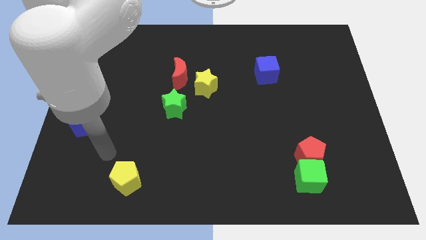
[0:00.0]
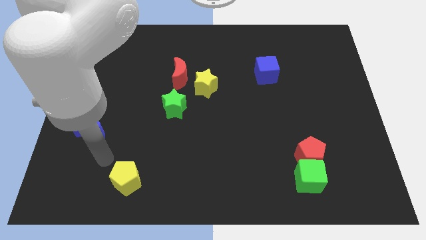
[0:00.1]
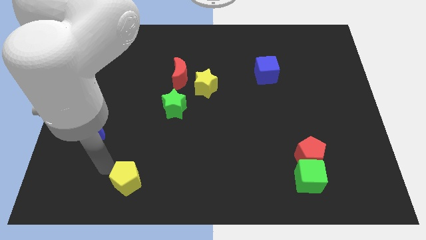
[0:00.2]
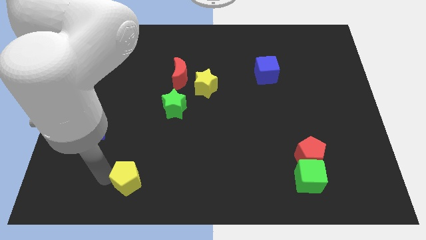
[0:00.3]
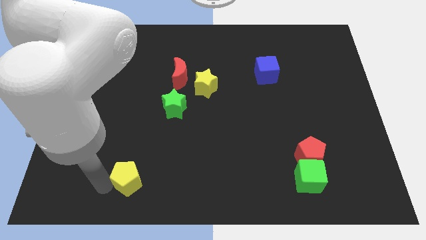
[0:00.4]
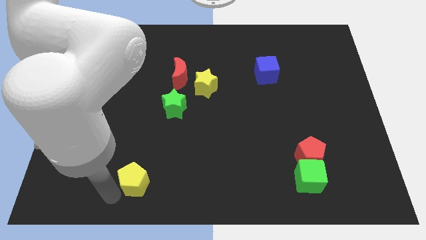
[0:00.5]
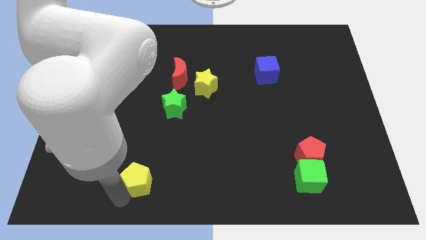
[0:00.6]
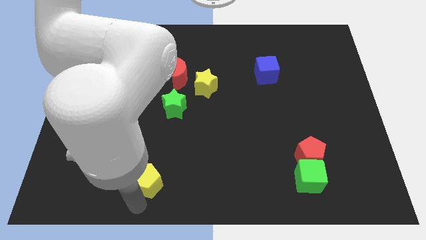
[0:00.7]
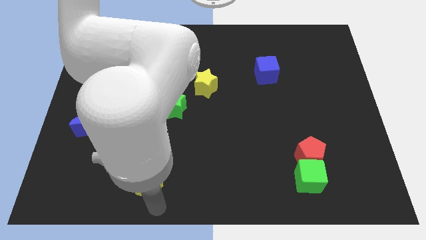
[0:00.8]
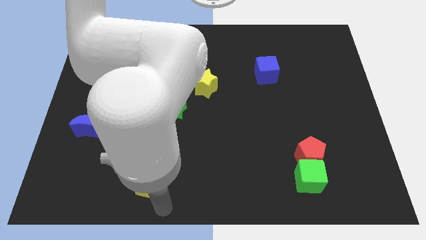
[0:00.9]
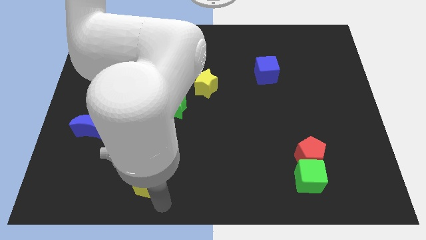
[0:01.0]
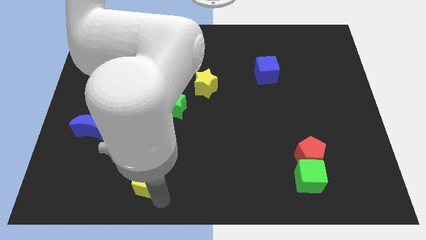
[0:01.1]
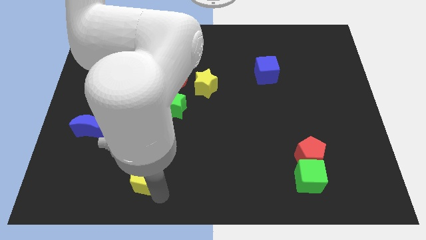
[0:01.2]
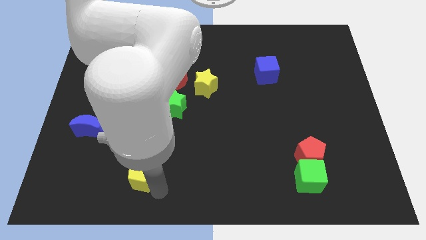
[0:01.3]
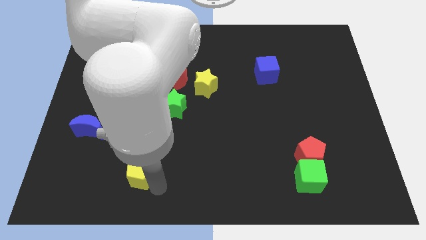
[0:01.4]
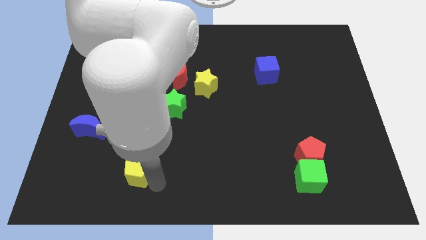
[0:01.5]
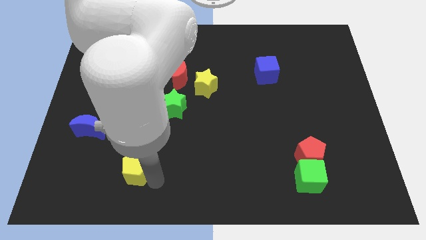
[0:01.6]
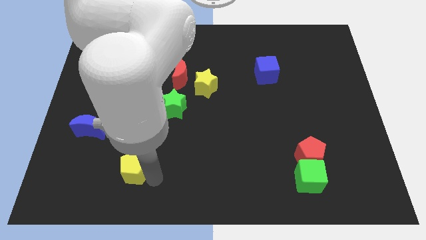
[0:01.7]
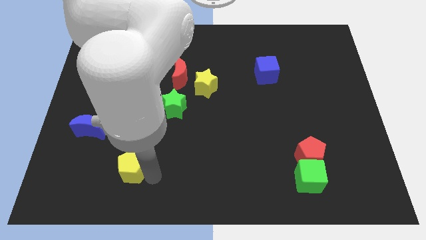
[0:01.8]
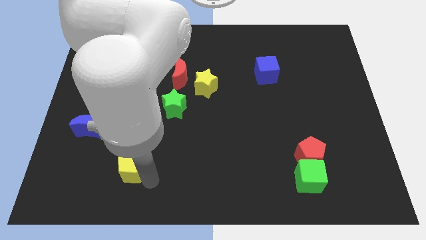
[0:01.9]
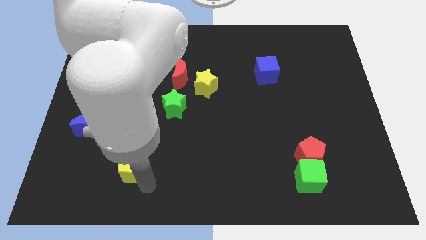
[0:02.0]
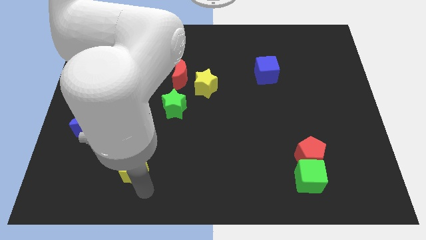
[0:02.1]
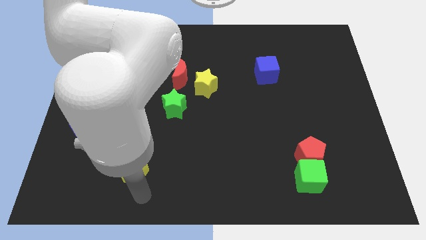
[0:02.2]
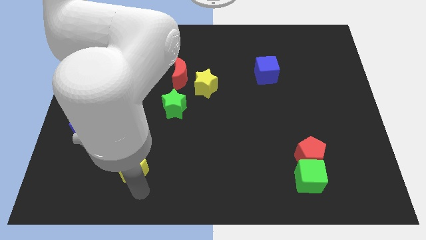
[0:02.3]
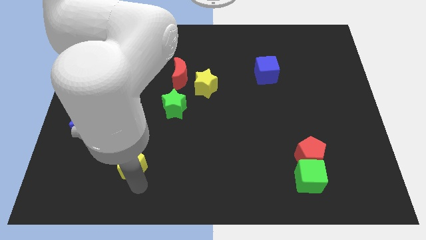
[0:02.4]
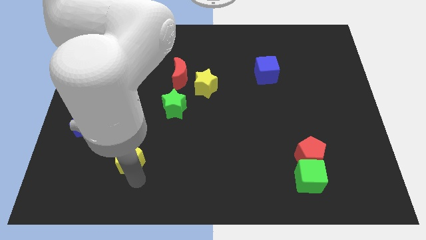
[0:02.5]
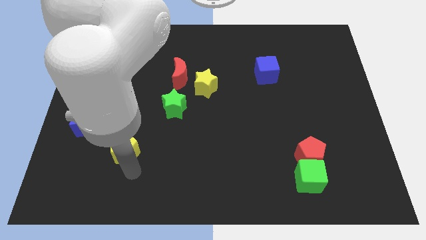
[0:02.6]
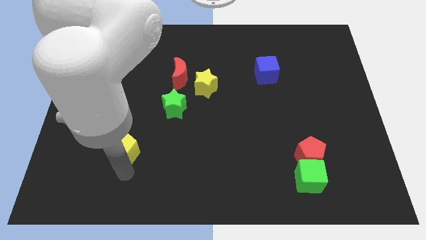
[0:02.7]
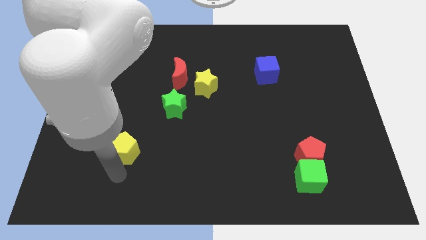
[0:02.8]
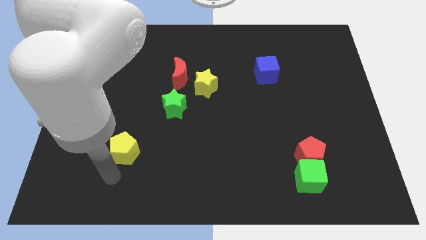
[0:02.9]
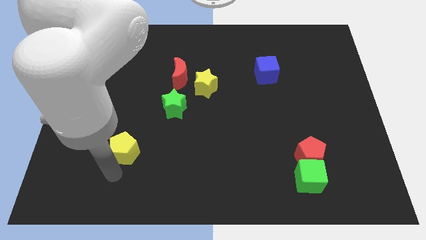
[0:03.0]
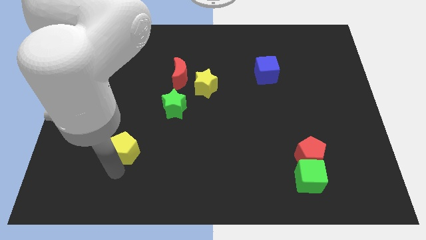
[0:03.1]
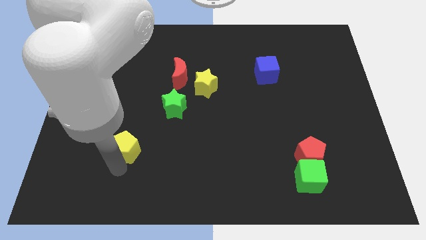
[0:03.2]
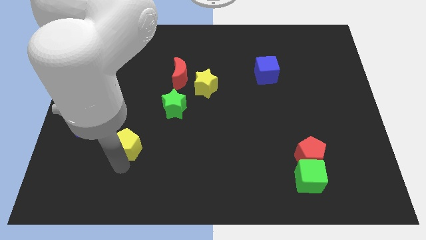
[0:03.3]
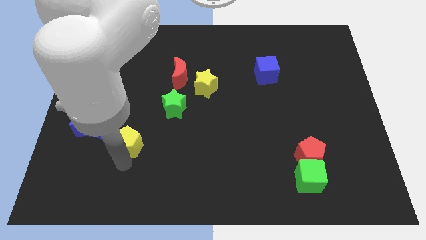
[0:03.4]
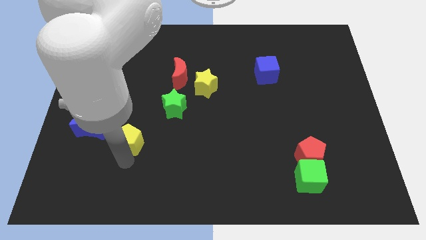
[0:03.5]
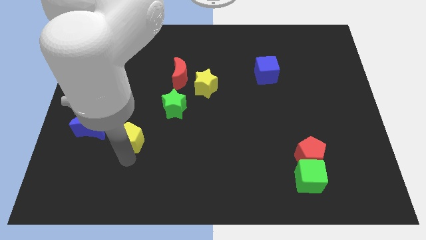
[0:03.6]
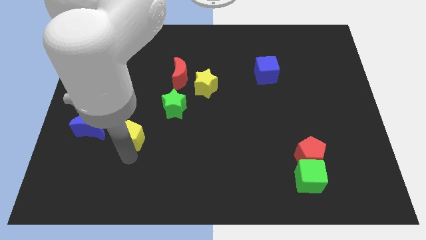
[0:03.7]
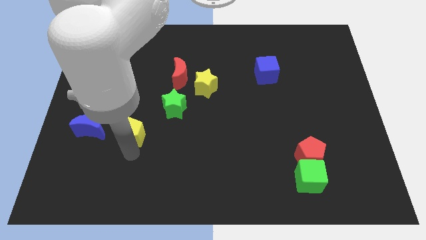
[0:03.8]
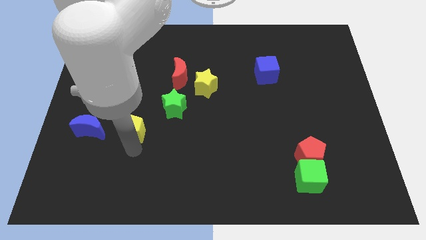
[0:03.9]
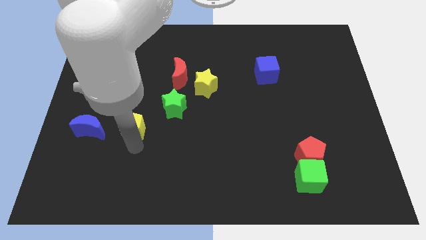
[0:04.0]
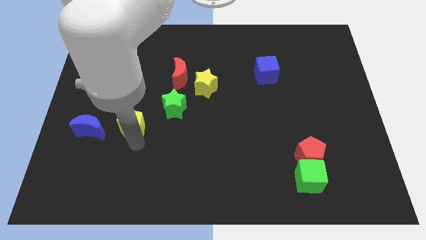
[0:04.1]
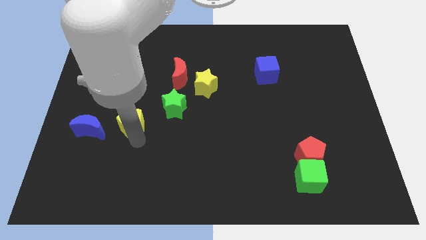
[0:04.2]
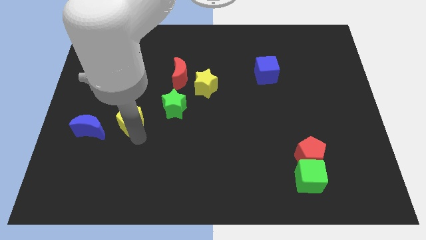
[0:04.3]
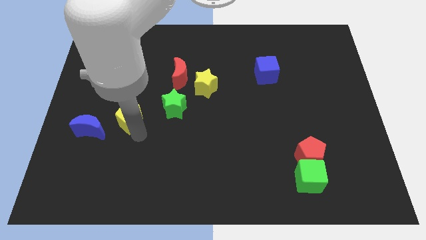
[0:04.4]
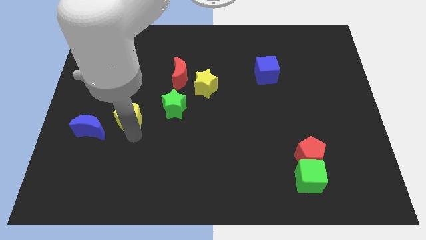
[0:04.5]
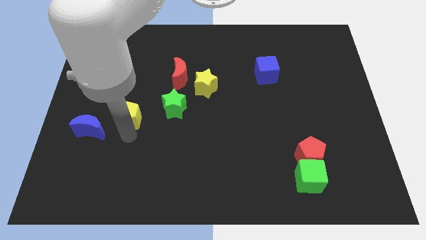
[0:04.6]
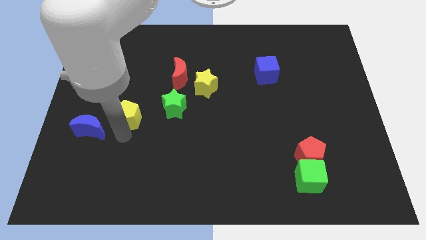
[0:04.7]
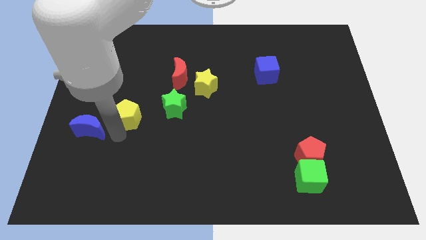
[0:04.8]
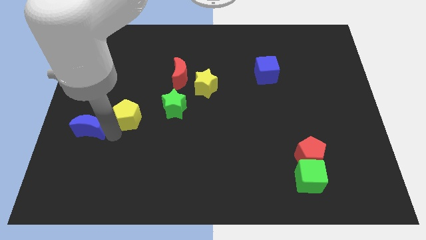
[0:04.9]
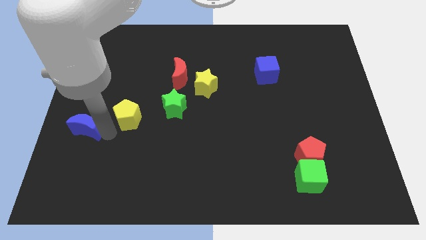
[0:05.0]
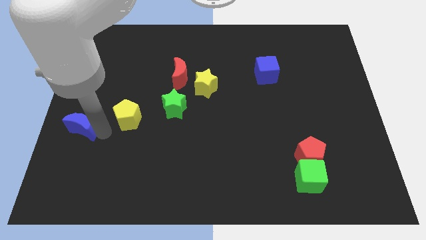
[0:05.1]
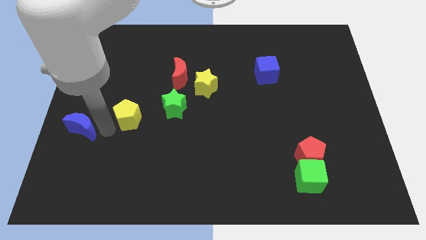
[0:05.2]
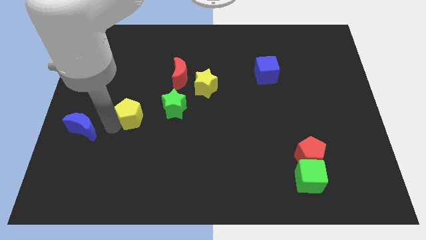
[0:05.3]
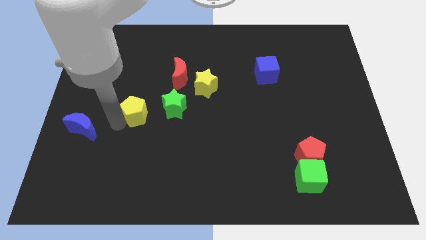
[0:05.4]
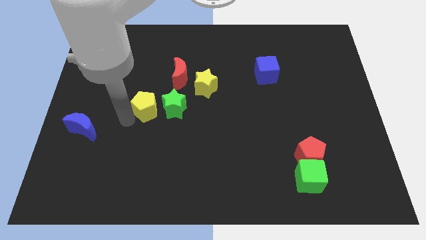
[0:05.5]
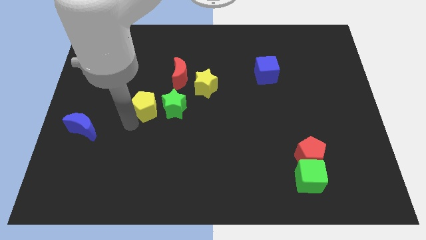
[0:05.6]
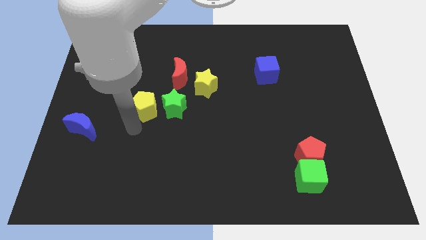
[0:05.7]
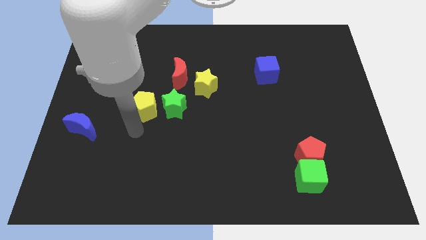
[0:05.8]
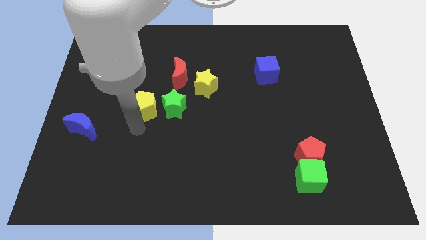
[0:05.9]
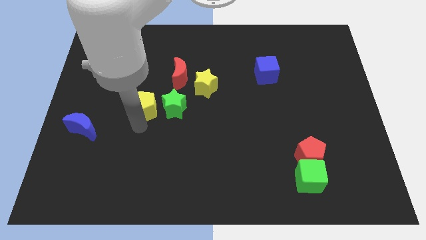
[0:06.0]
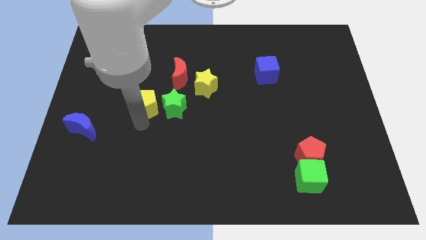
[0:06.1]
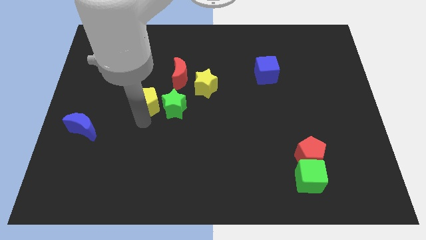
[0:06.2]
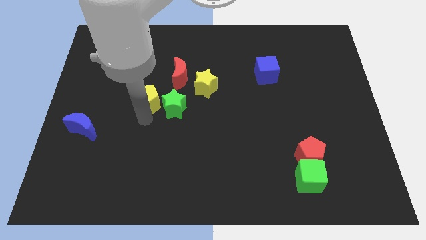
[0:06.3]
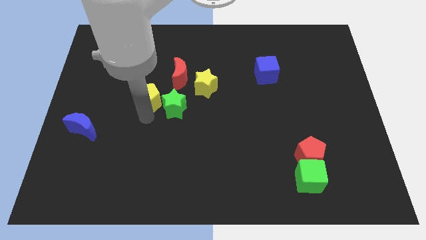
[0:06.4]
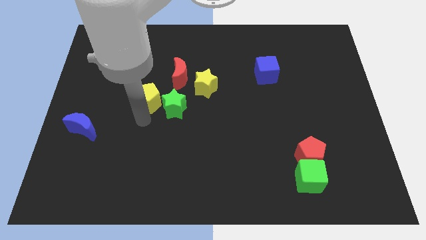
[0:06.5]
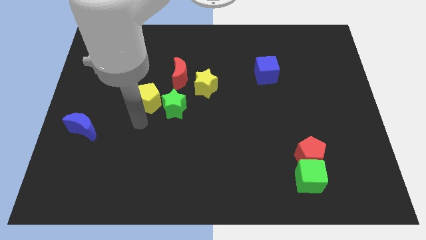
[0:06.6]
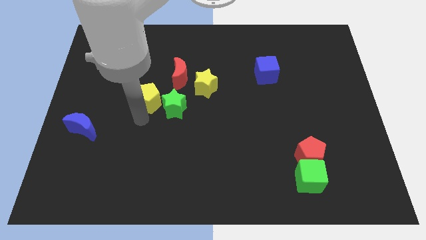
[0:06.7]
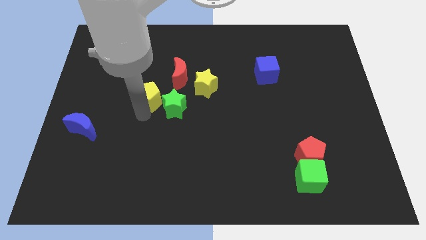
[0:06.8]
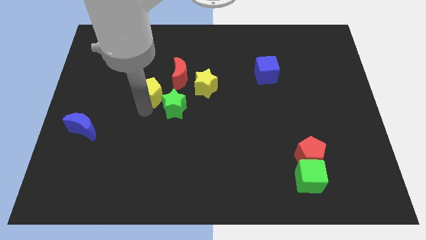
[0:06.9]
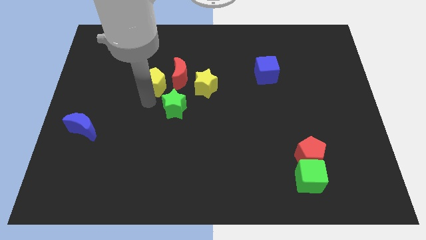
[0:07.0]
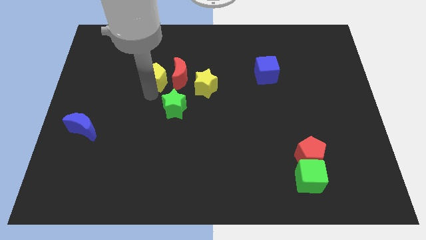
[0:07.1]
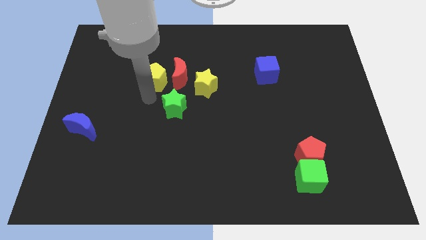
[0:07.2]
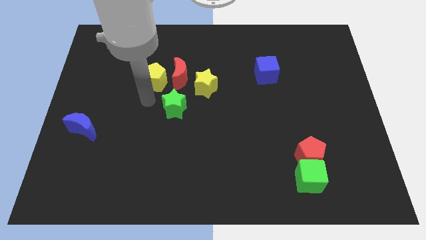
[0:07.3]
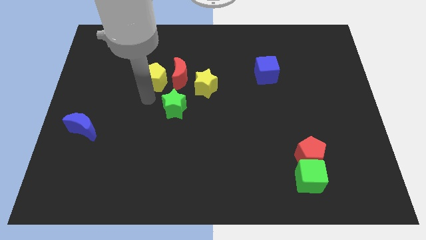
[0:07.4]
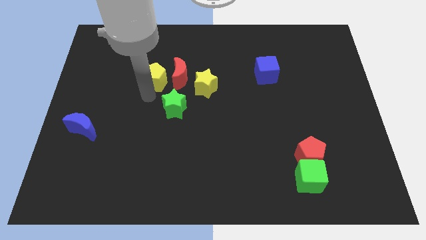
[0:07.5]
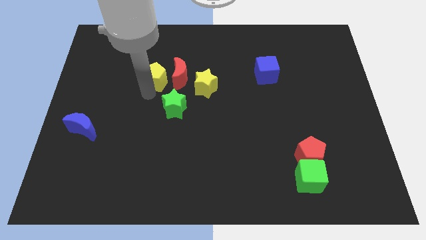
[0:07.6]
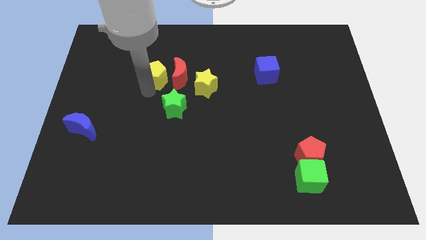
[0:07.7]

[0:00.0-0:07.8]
slide the yellow pentagon to the top left side of the red moon

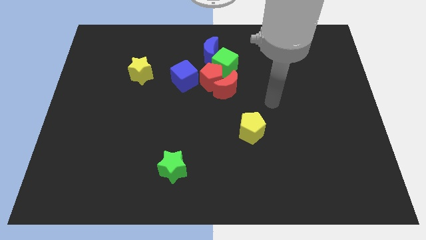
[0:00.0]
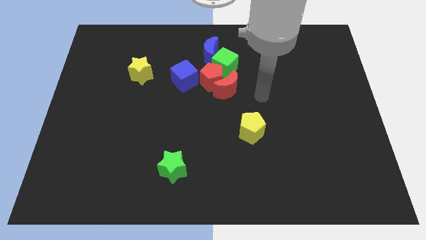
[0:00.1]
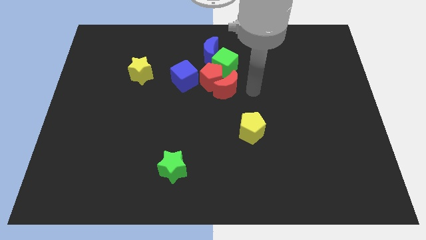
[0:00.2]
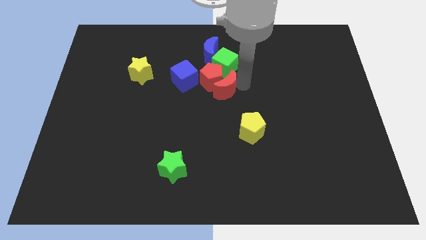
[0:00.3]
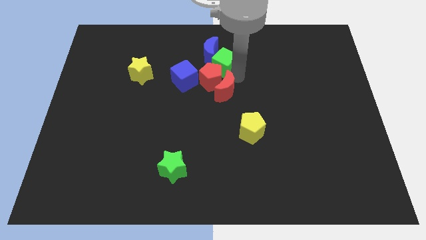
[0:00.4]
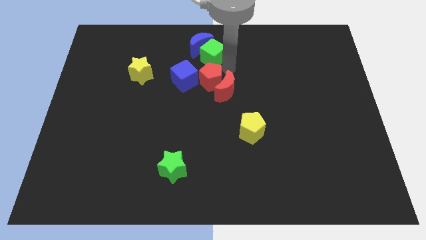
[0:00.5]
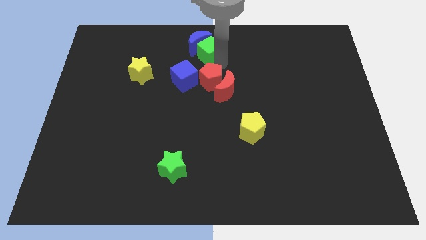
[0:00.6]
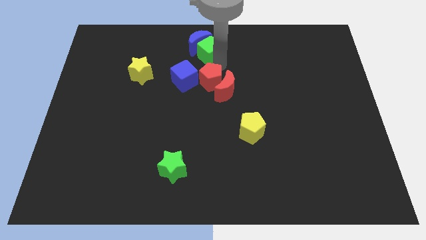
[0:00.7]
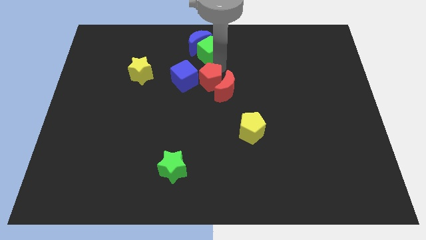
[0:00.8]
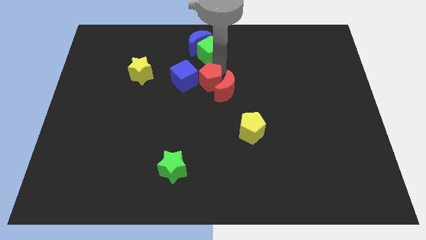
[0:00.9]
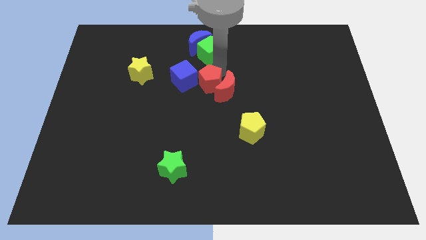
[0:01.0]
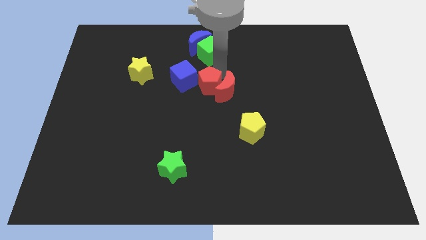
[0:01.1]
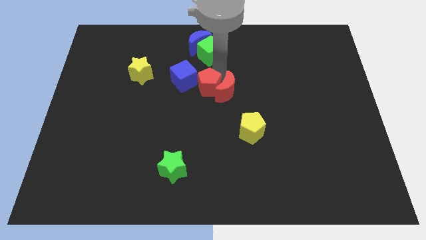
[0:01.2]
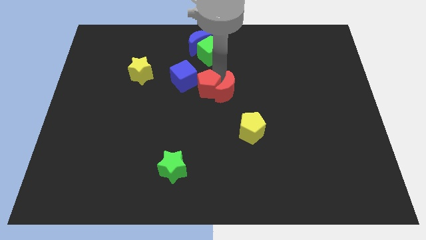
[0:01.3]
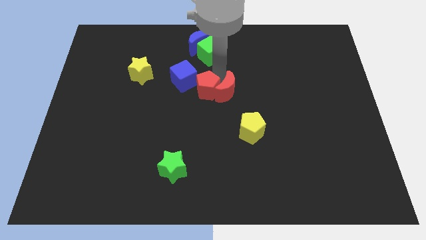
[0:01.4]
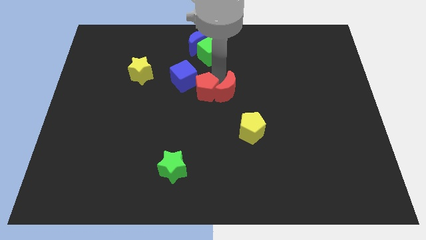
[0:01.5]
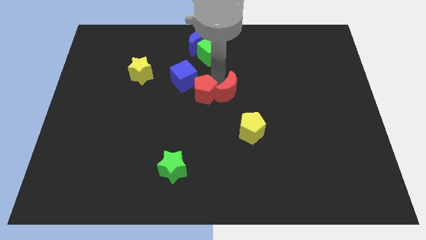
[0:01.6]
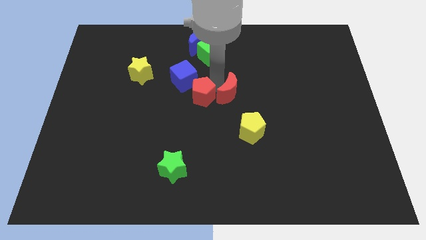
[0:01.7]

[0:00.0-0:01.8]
slide the red pentagon below the blue cube
